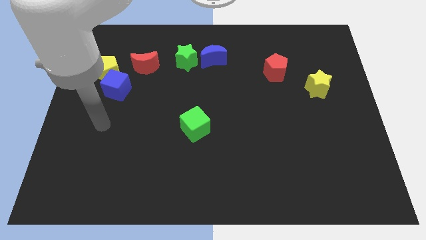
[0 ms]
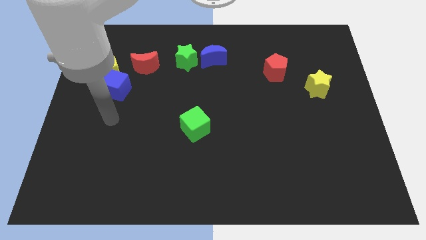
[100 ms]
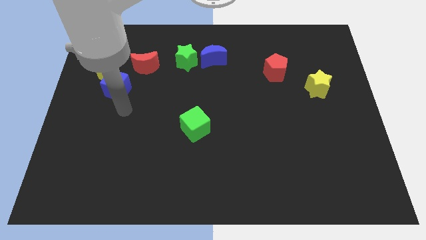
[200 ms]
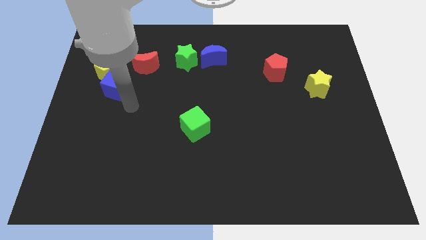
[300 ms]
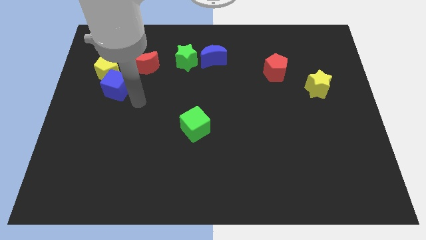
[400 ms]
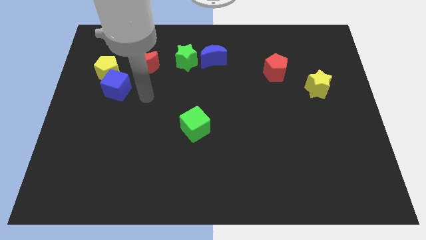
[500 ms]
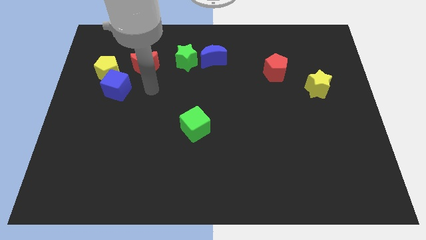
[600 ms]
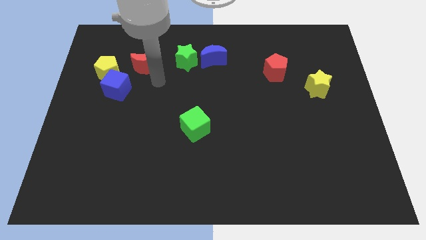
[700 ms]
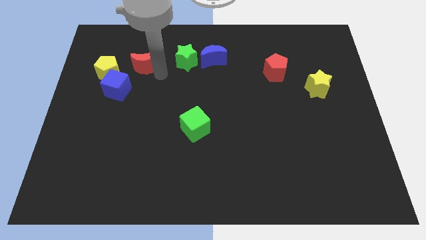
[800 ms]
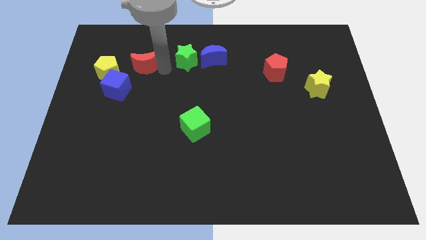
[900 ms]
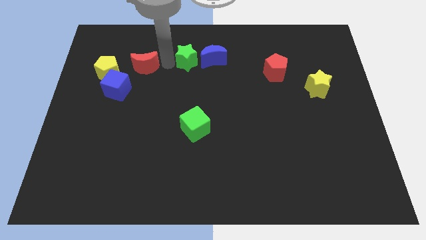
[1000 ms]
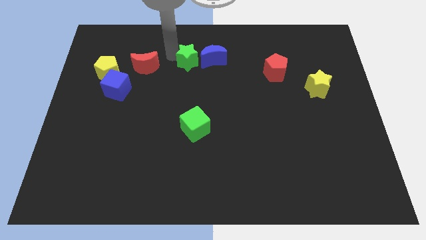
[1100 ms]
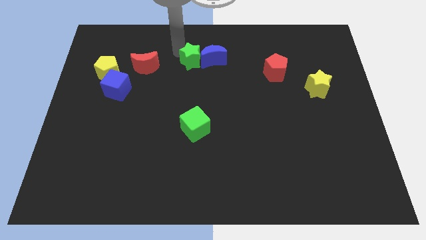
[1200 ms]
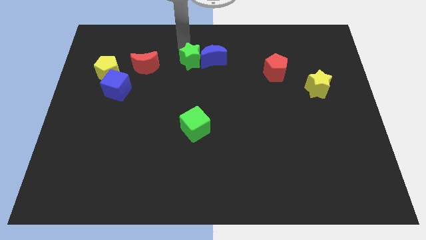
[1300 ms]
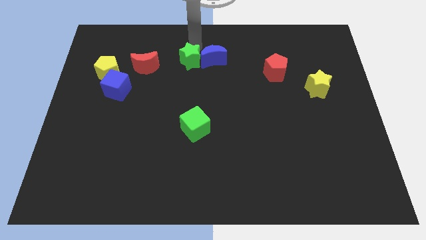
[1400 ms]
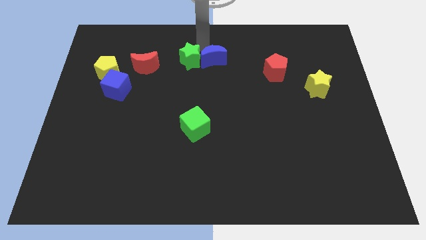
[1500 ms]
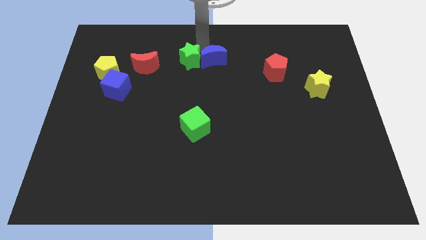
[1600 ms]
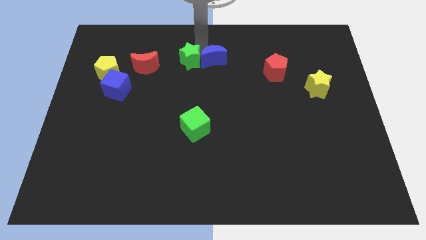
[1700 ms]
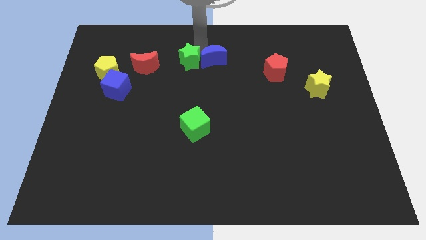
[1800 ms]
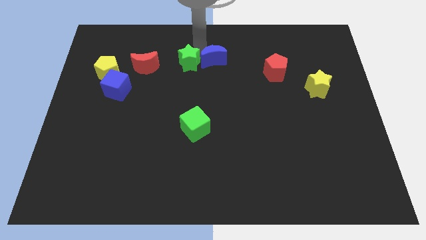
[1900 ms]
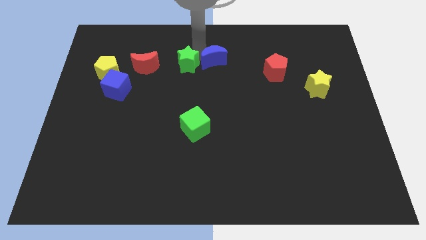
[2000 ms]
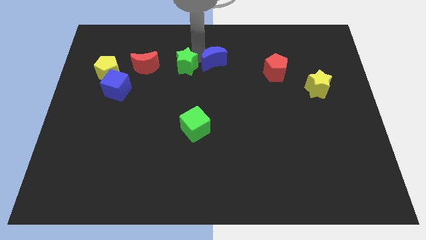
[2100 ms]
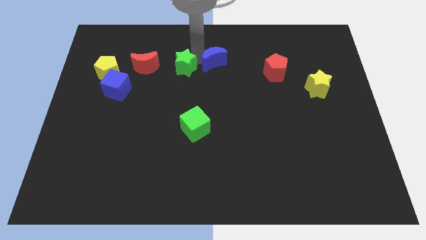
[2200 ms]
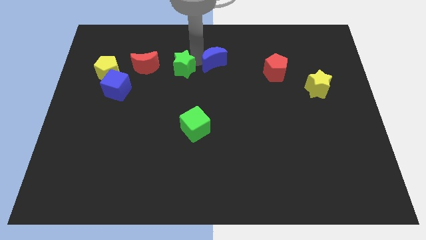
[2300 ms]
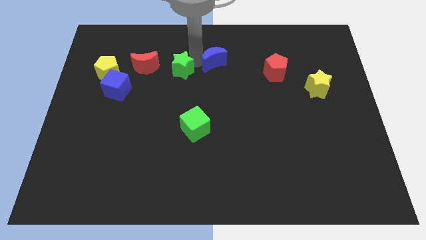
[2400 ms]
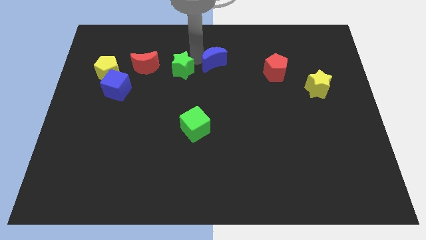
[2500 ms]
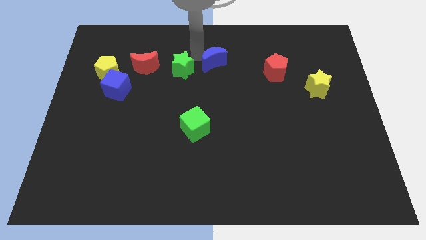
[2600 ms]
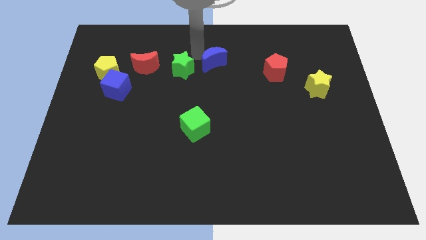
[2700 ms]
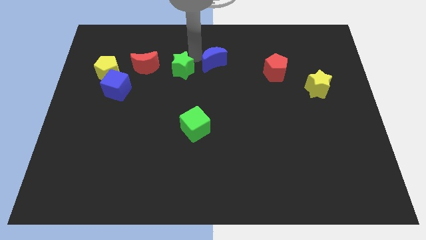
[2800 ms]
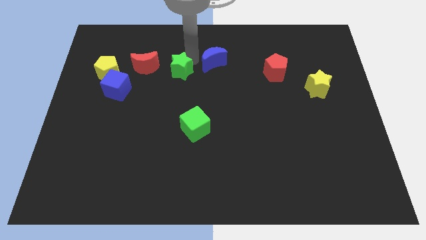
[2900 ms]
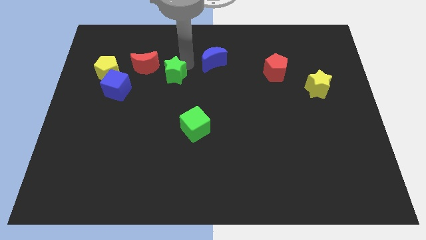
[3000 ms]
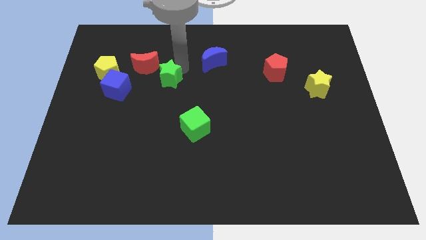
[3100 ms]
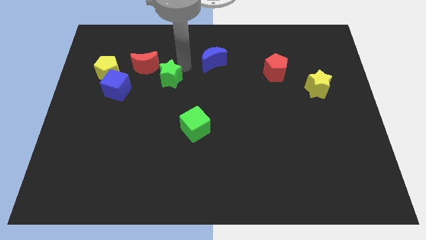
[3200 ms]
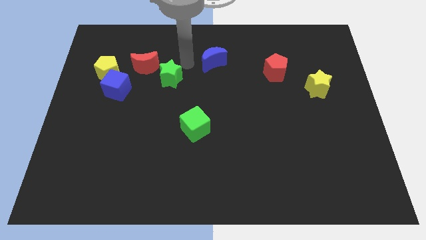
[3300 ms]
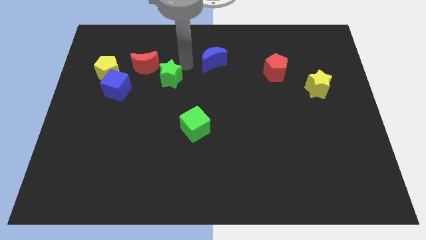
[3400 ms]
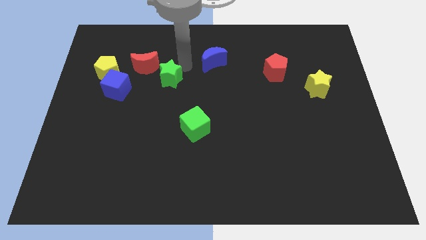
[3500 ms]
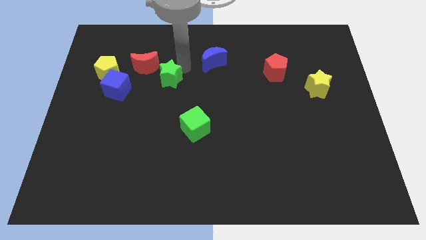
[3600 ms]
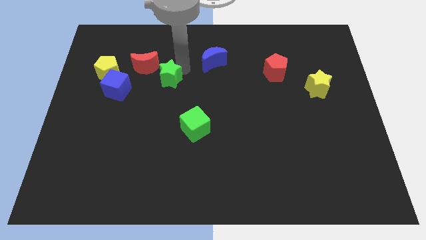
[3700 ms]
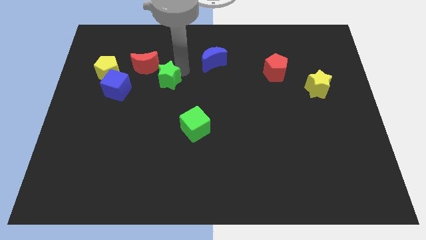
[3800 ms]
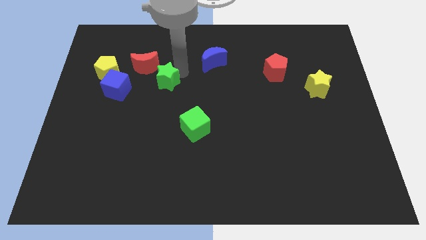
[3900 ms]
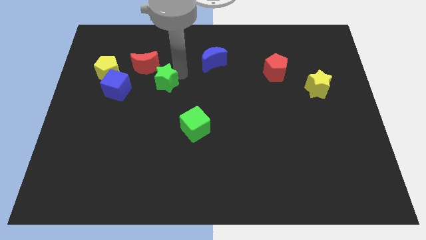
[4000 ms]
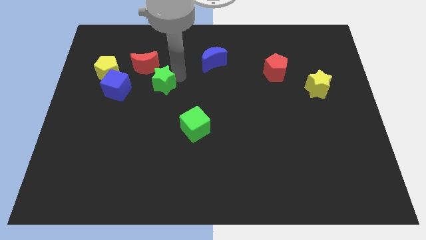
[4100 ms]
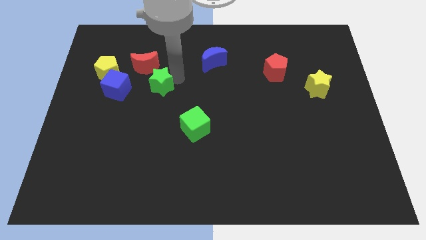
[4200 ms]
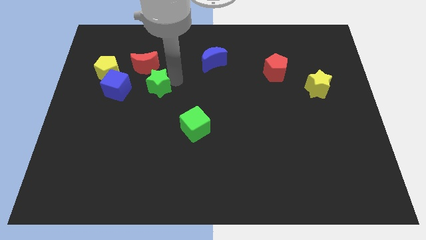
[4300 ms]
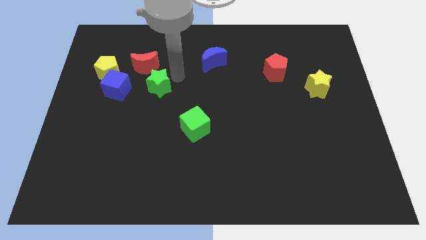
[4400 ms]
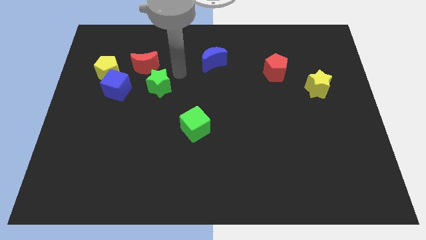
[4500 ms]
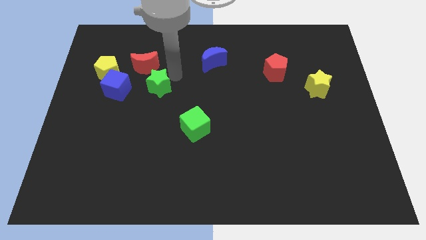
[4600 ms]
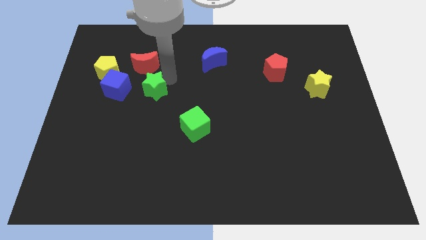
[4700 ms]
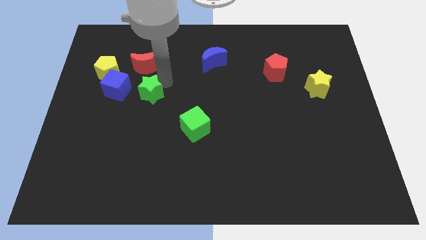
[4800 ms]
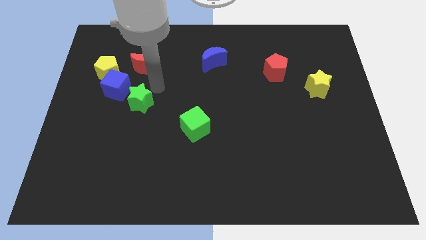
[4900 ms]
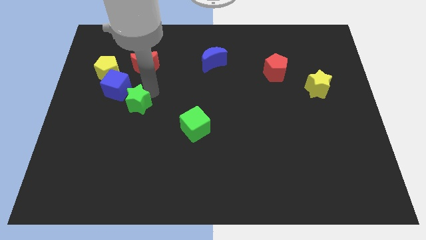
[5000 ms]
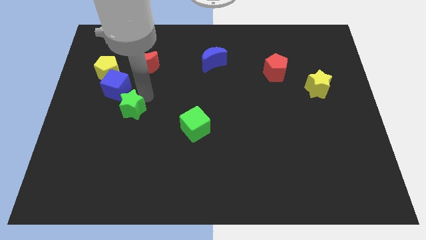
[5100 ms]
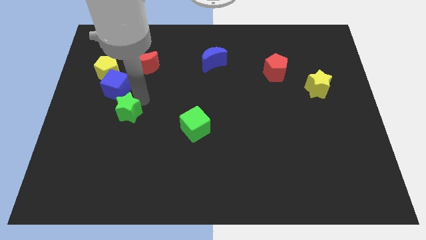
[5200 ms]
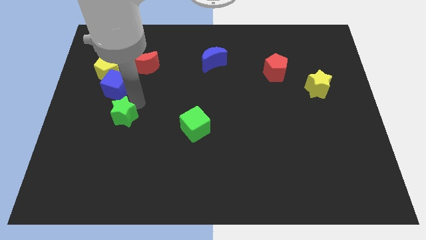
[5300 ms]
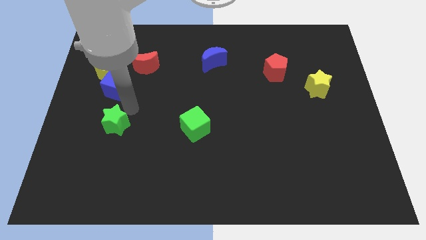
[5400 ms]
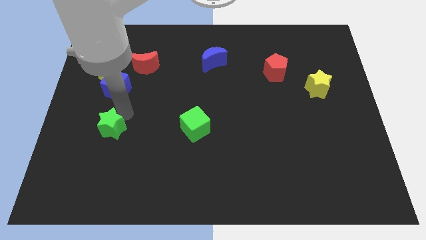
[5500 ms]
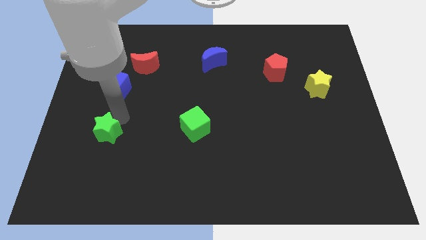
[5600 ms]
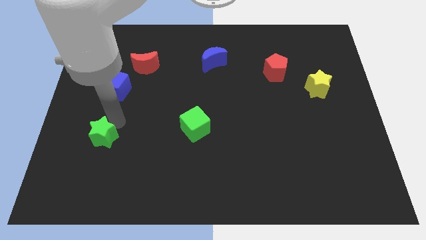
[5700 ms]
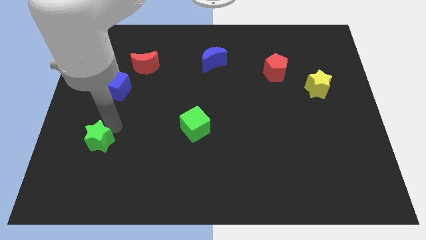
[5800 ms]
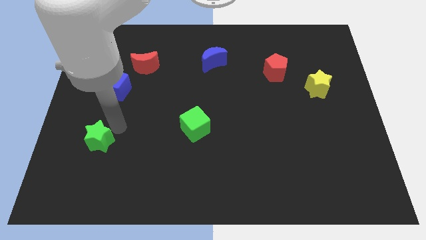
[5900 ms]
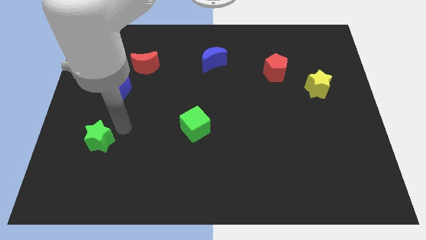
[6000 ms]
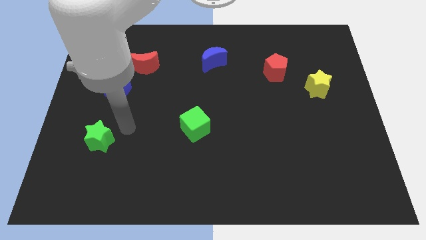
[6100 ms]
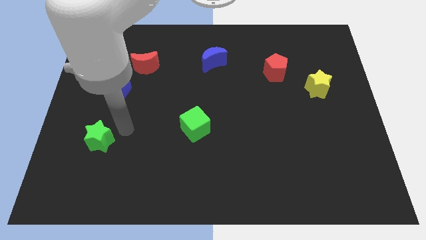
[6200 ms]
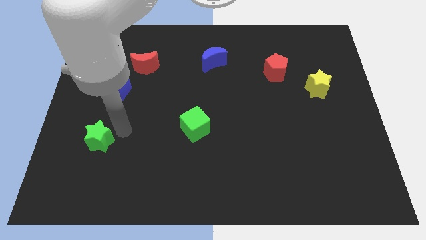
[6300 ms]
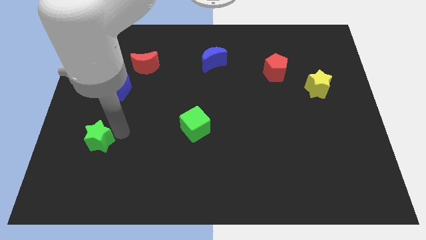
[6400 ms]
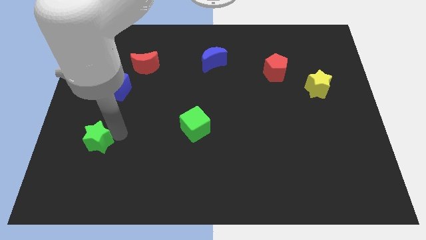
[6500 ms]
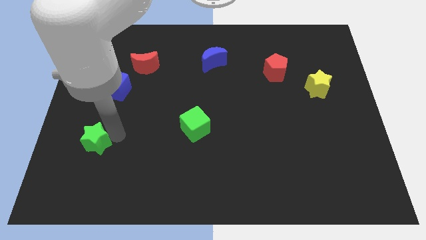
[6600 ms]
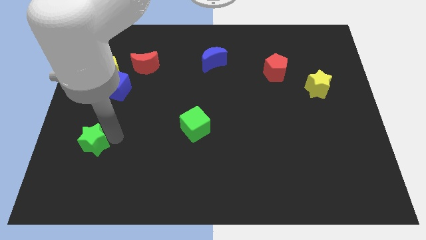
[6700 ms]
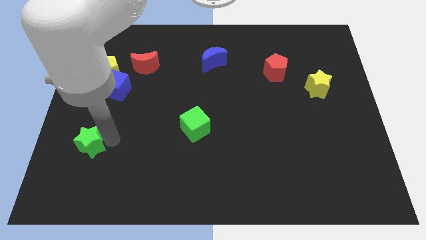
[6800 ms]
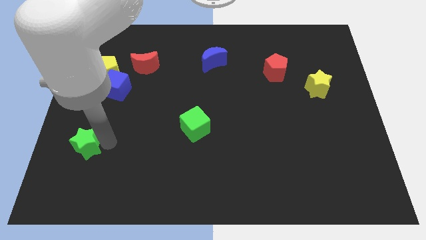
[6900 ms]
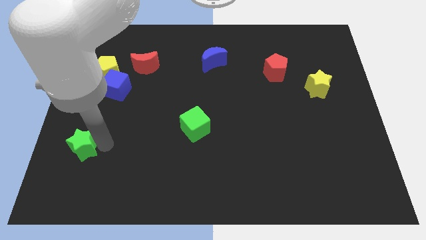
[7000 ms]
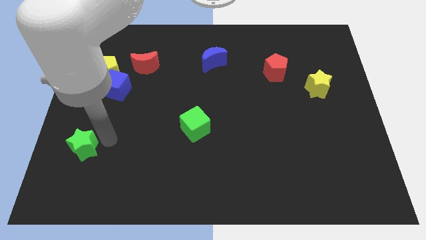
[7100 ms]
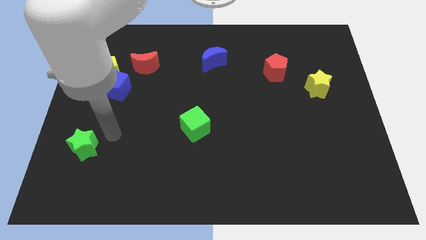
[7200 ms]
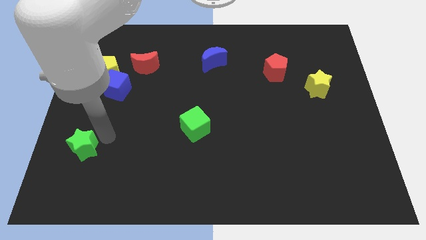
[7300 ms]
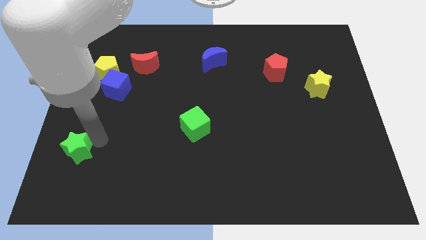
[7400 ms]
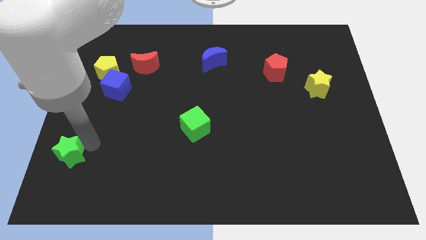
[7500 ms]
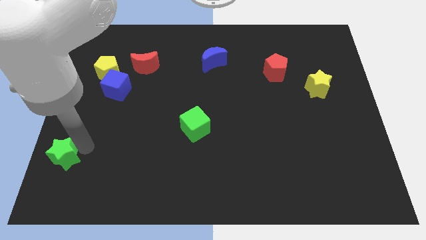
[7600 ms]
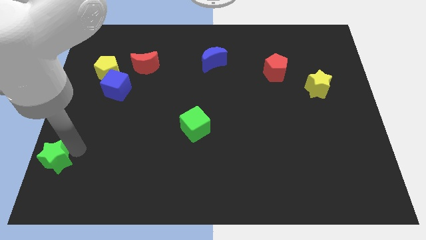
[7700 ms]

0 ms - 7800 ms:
push the green star to the bottom left corner

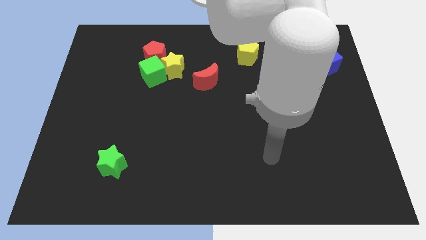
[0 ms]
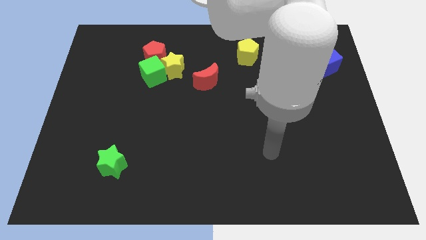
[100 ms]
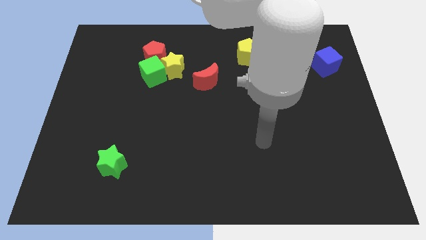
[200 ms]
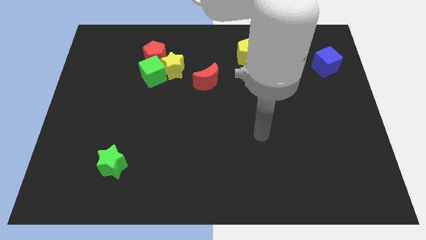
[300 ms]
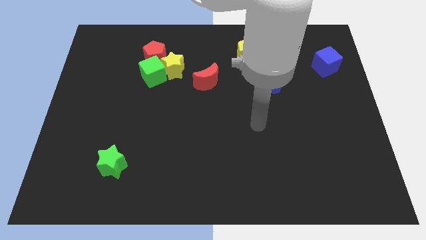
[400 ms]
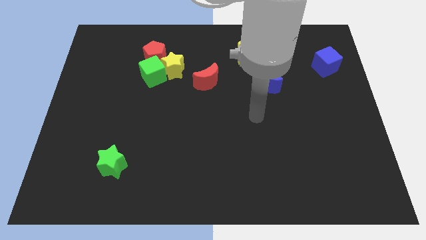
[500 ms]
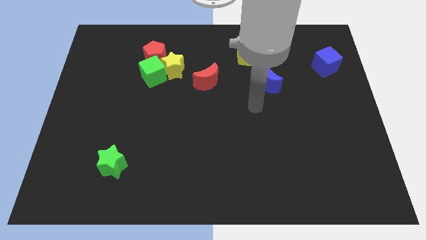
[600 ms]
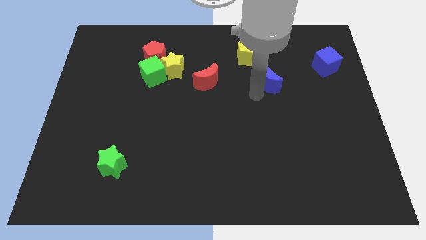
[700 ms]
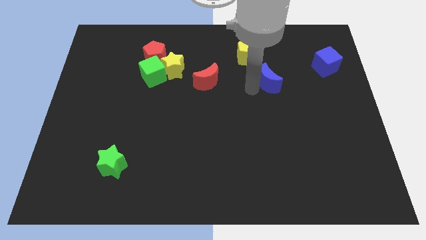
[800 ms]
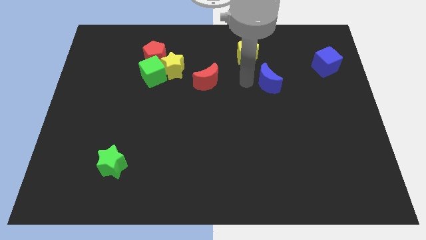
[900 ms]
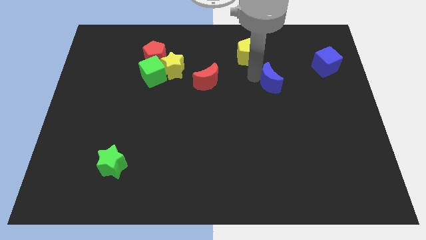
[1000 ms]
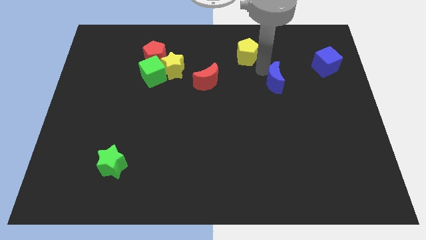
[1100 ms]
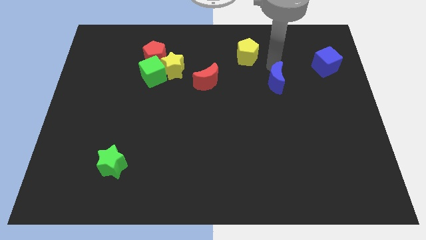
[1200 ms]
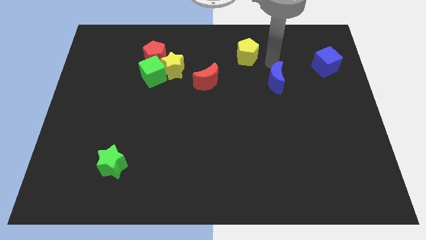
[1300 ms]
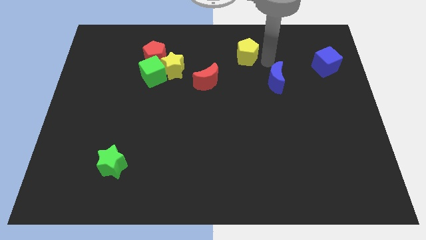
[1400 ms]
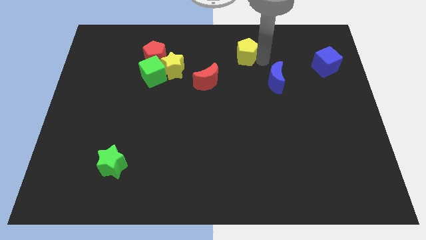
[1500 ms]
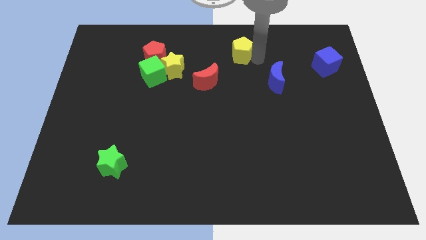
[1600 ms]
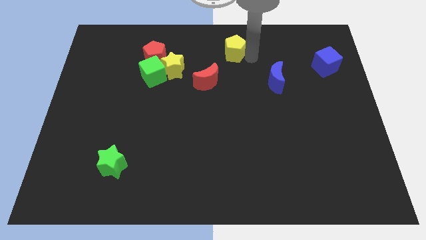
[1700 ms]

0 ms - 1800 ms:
put the yellow pentagon to the top
